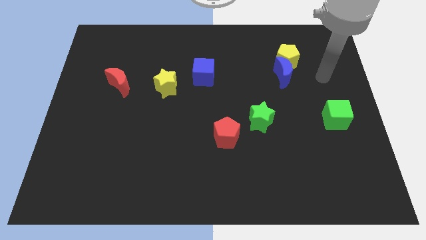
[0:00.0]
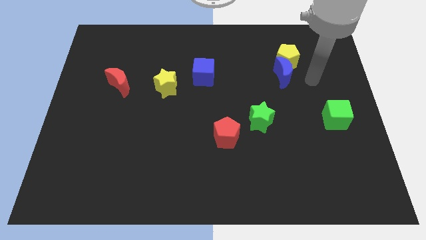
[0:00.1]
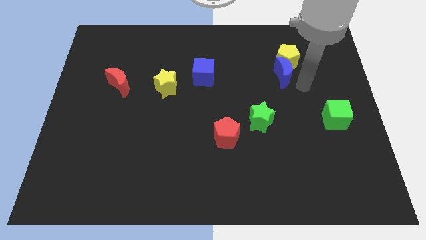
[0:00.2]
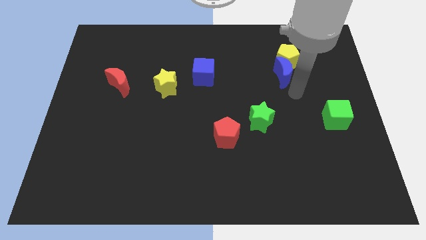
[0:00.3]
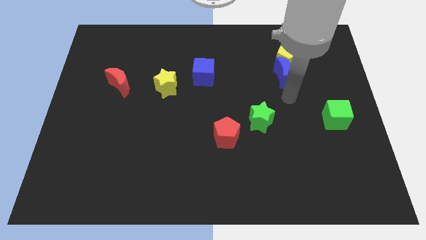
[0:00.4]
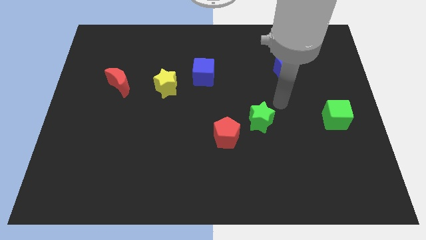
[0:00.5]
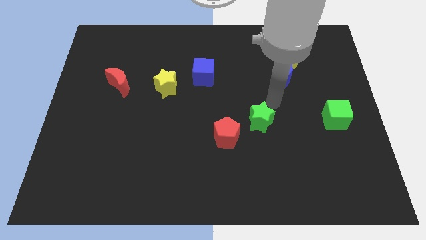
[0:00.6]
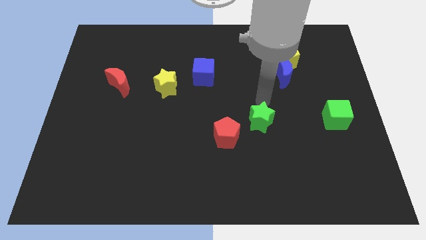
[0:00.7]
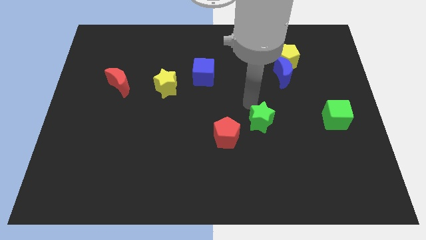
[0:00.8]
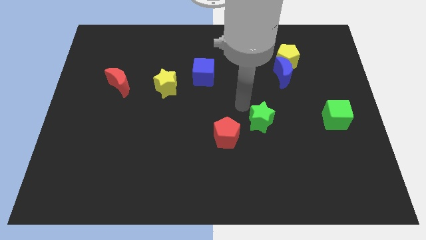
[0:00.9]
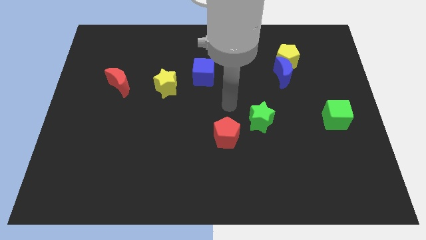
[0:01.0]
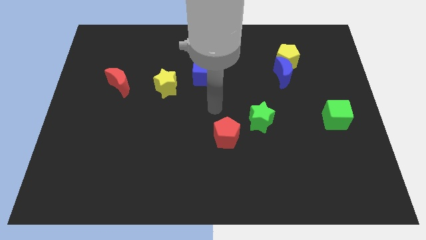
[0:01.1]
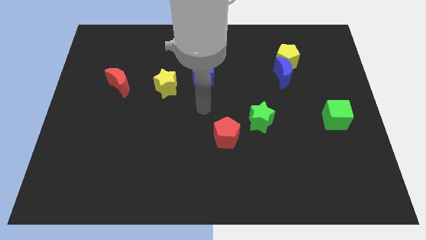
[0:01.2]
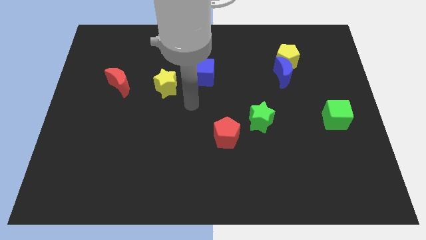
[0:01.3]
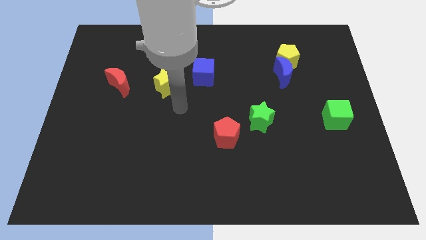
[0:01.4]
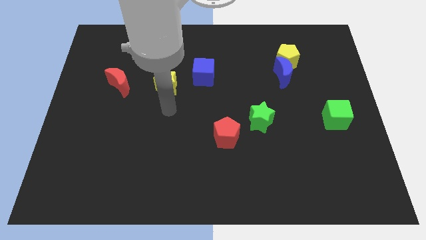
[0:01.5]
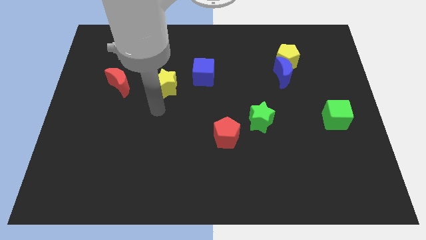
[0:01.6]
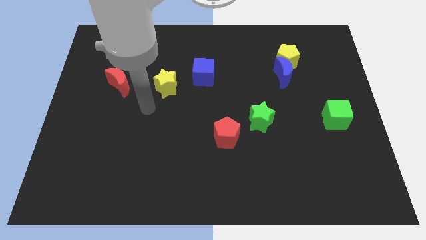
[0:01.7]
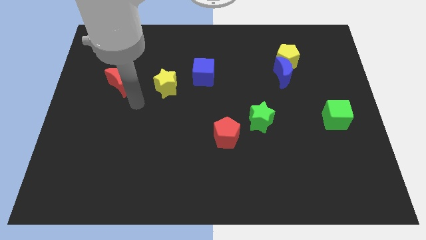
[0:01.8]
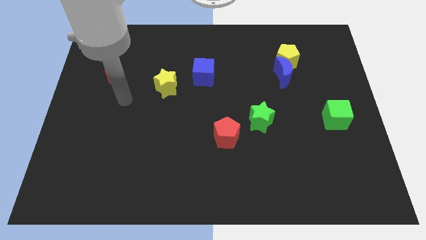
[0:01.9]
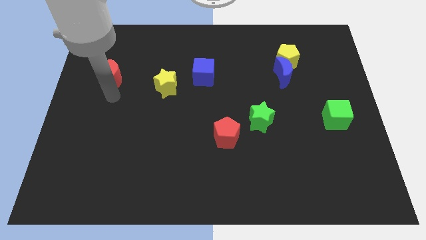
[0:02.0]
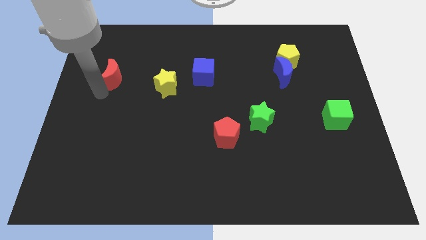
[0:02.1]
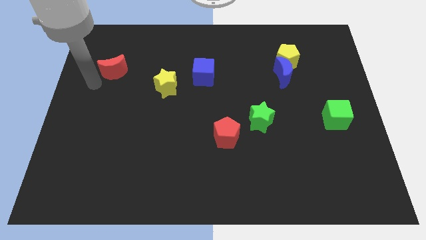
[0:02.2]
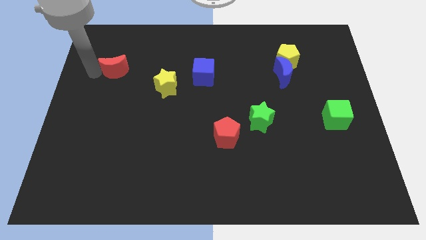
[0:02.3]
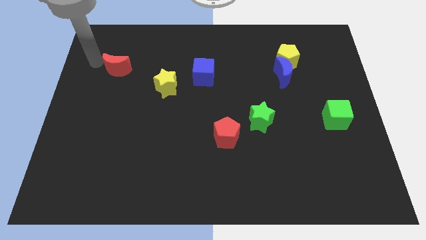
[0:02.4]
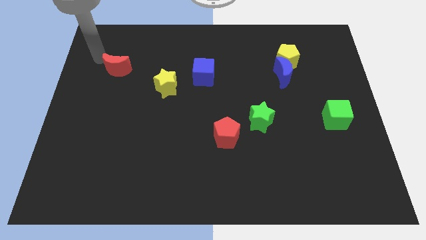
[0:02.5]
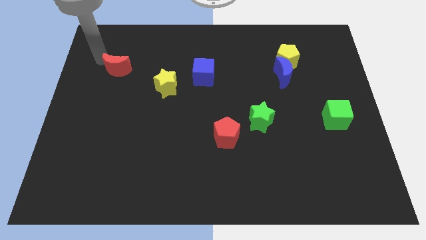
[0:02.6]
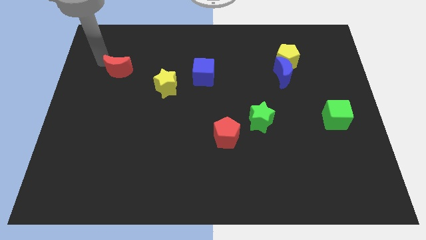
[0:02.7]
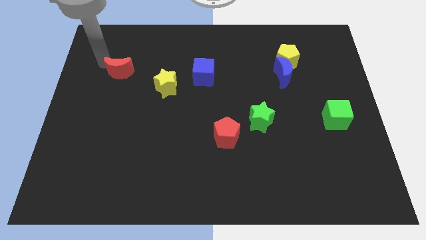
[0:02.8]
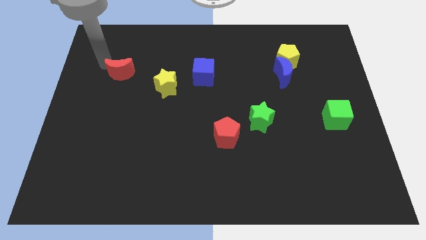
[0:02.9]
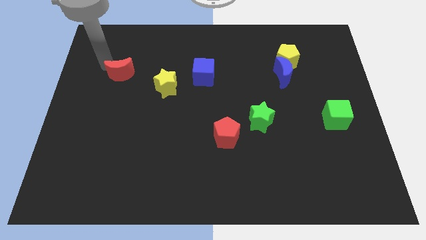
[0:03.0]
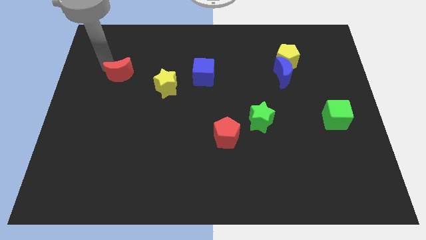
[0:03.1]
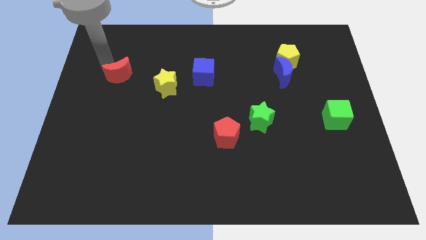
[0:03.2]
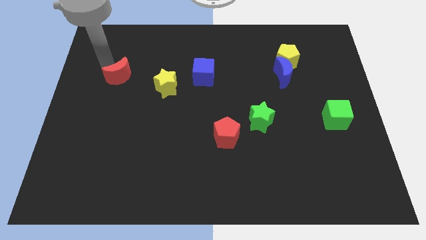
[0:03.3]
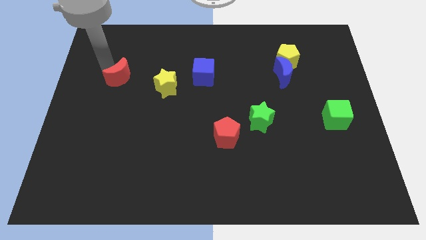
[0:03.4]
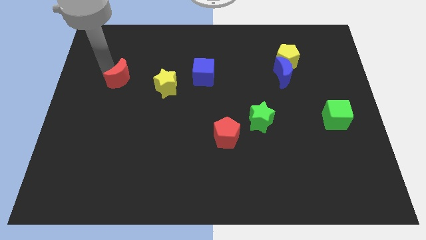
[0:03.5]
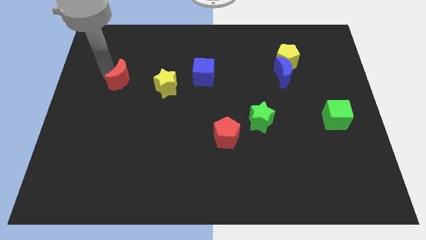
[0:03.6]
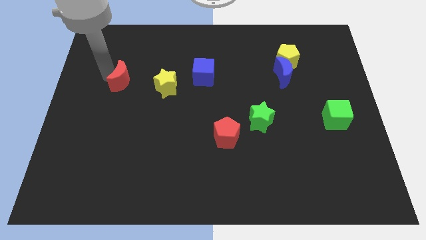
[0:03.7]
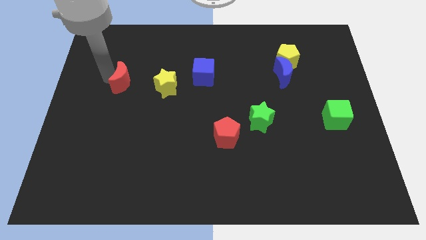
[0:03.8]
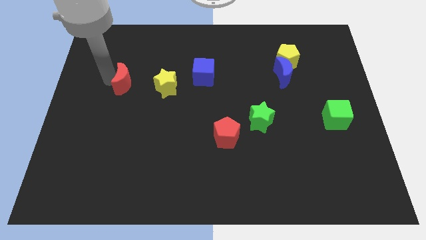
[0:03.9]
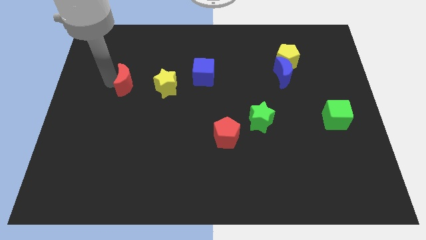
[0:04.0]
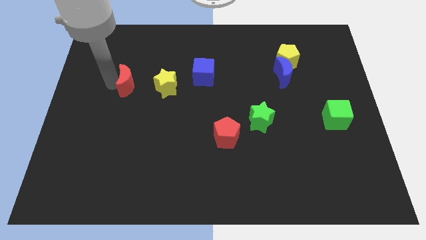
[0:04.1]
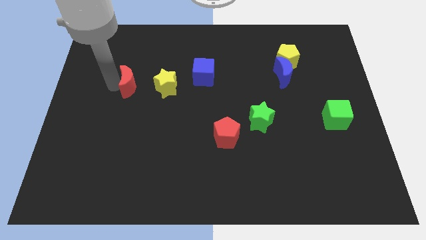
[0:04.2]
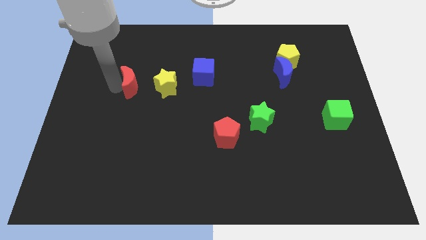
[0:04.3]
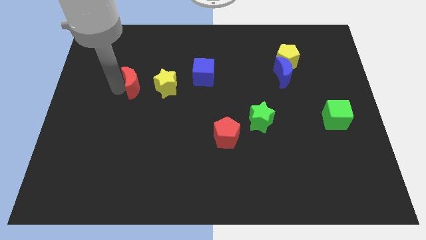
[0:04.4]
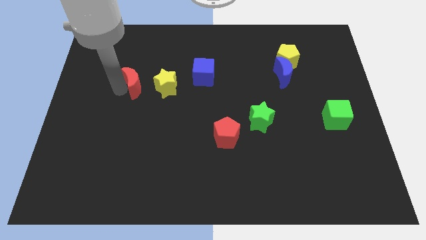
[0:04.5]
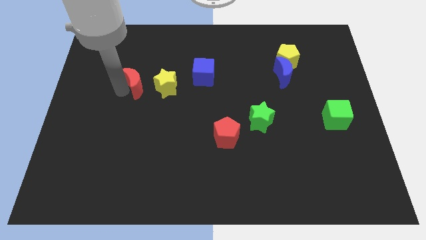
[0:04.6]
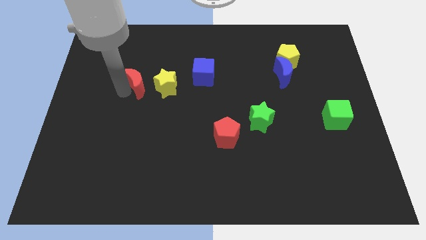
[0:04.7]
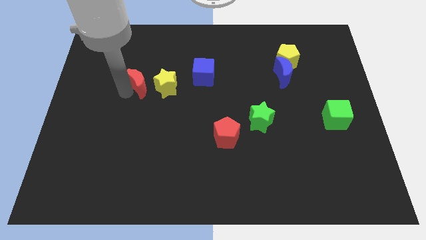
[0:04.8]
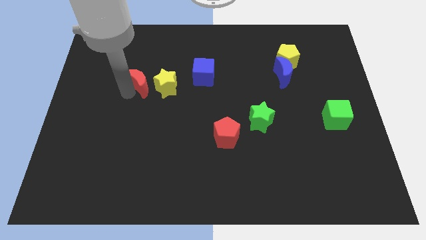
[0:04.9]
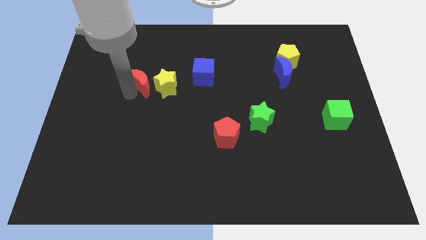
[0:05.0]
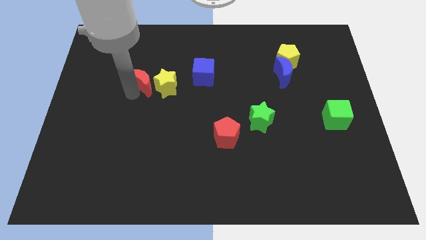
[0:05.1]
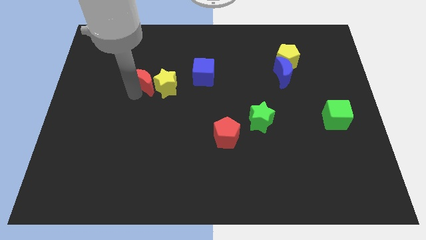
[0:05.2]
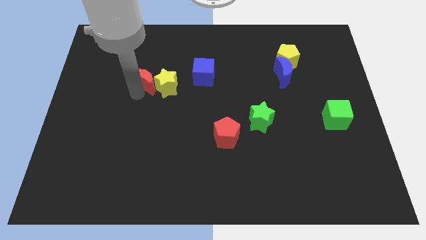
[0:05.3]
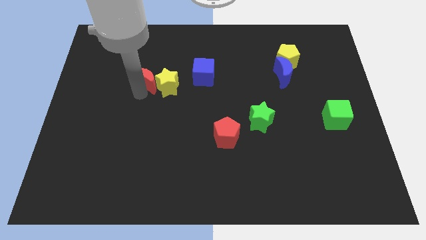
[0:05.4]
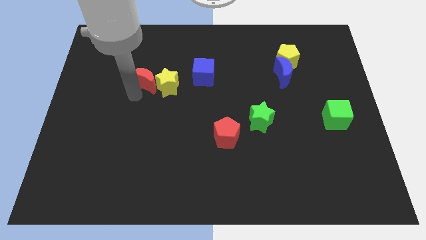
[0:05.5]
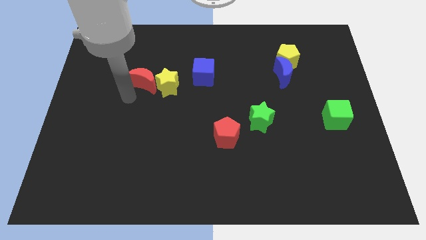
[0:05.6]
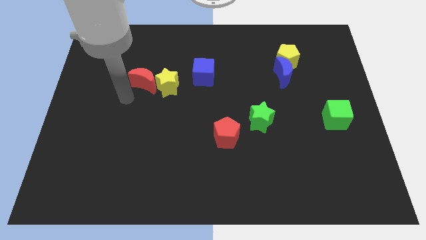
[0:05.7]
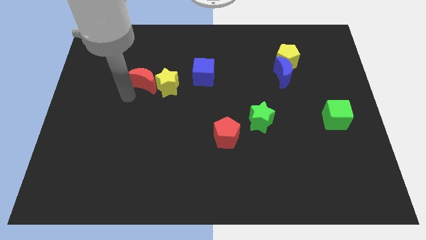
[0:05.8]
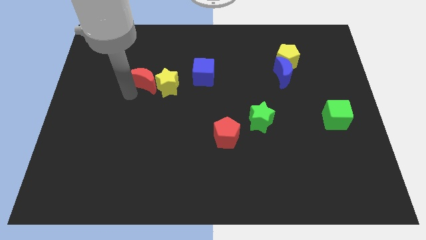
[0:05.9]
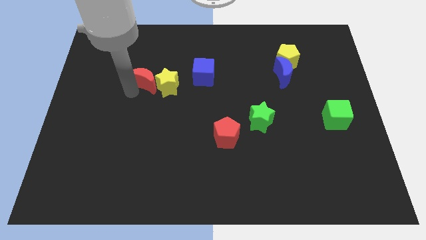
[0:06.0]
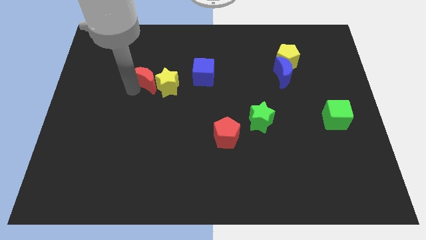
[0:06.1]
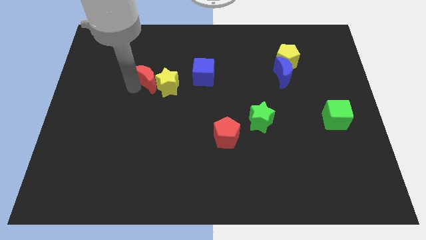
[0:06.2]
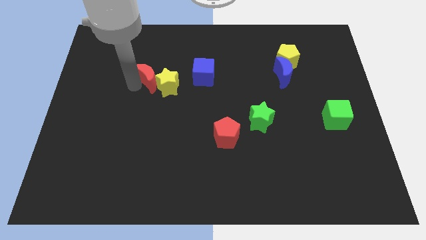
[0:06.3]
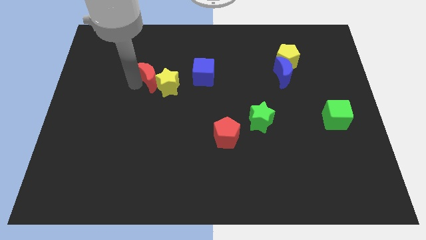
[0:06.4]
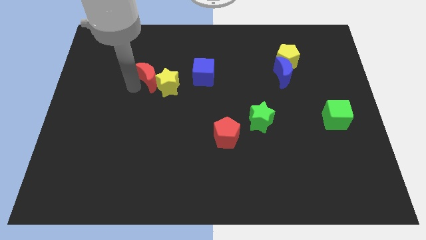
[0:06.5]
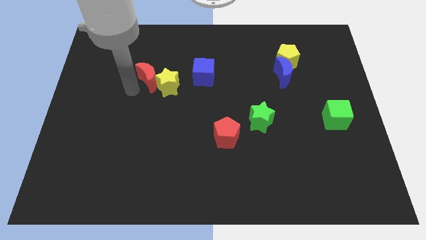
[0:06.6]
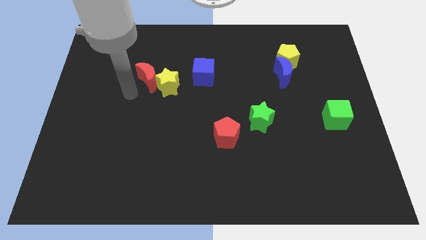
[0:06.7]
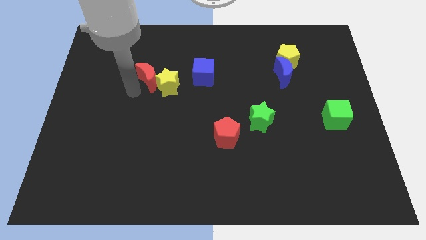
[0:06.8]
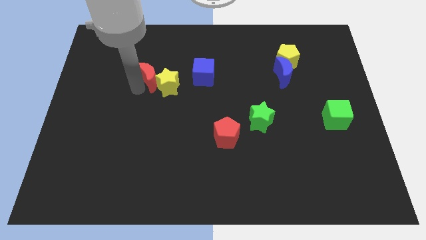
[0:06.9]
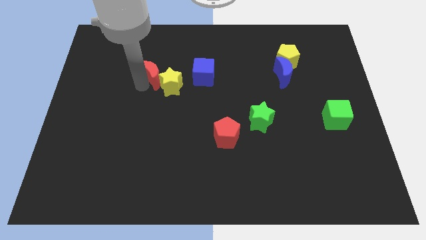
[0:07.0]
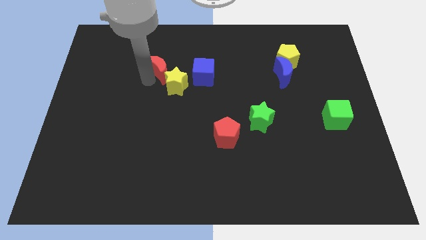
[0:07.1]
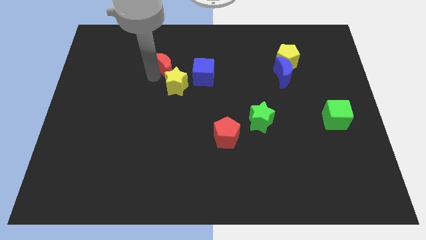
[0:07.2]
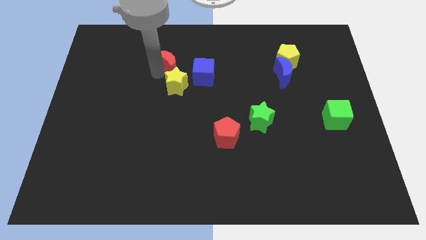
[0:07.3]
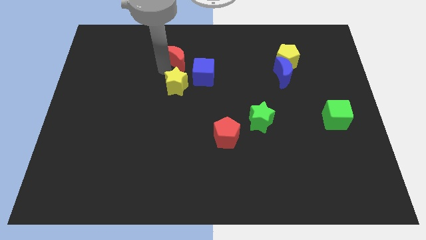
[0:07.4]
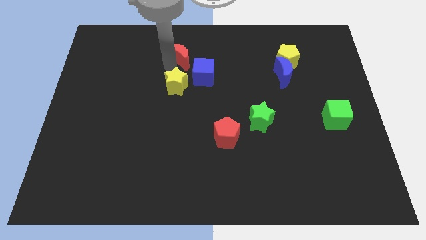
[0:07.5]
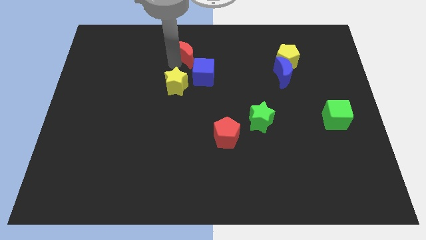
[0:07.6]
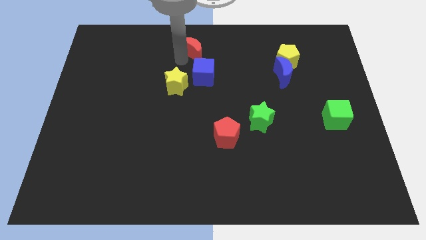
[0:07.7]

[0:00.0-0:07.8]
push the red moon to the top side
